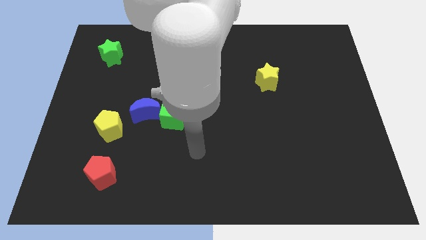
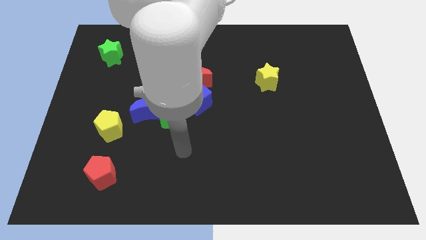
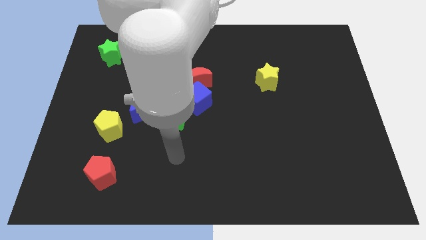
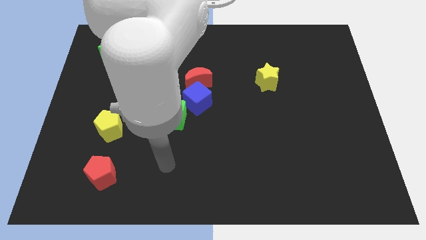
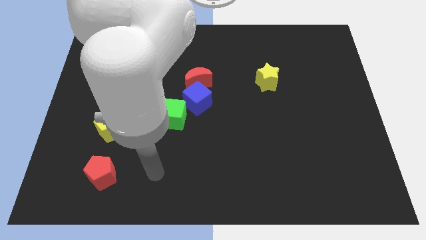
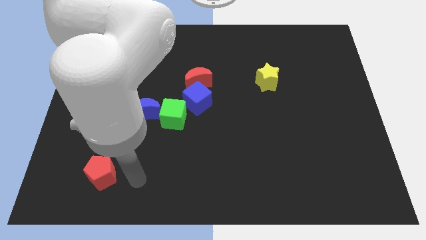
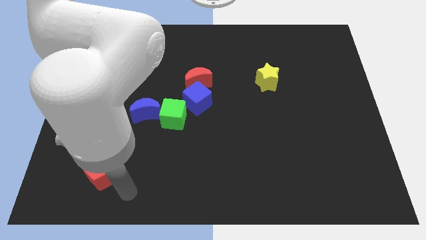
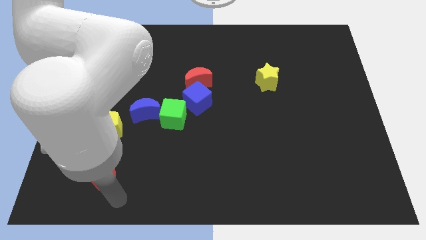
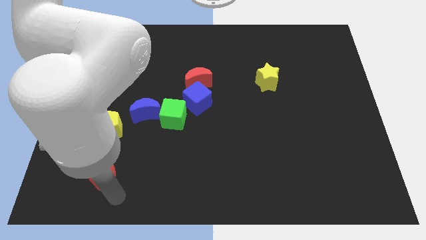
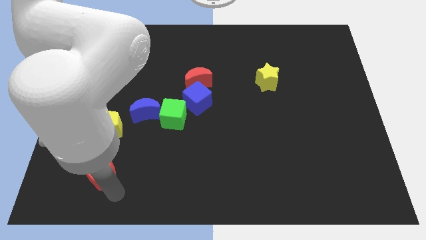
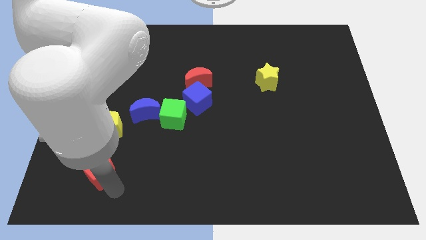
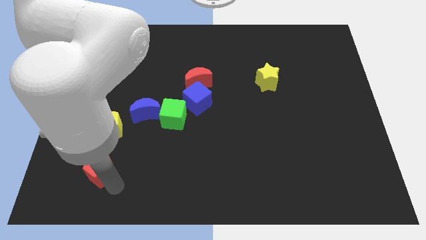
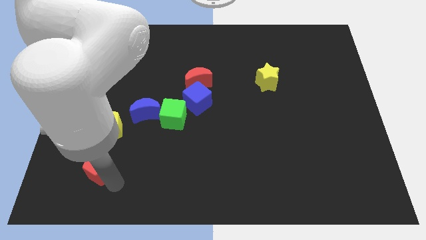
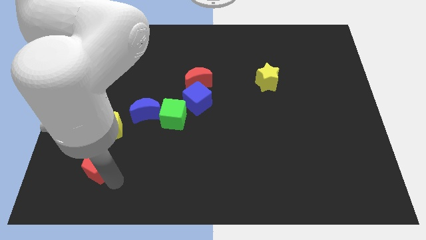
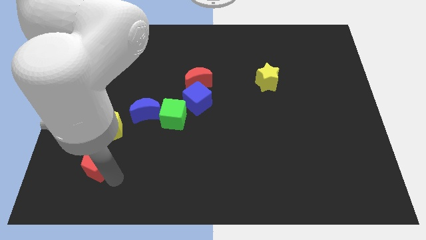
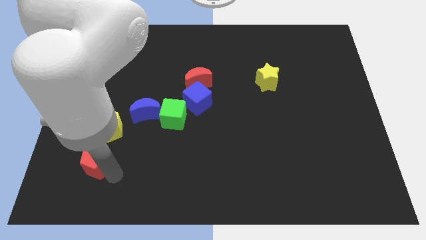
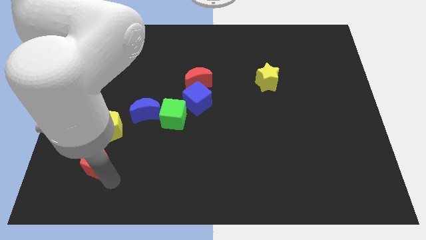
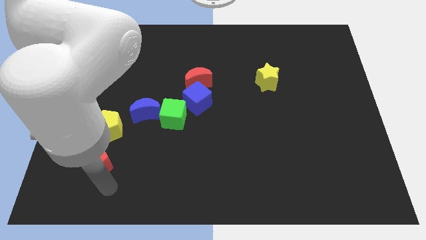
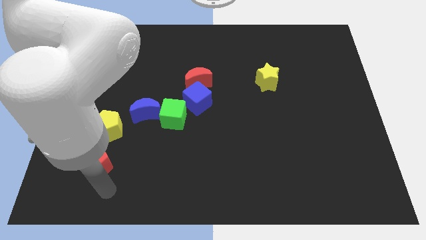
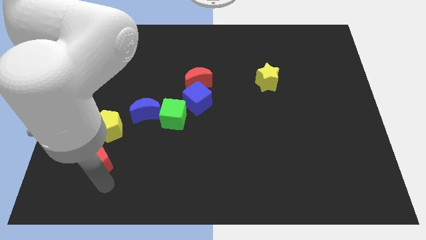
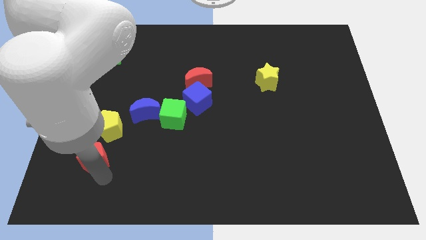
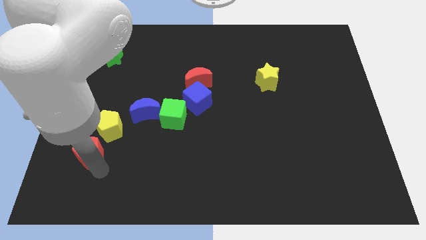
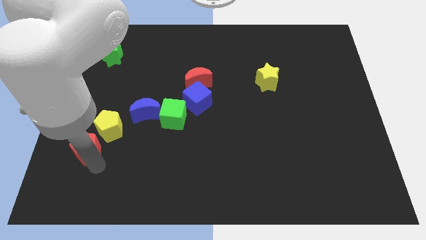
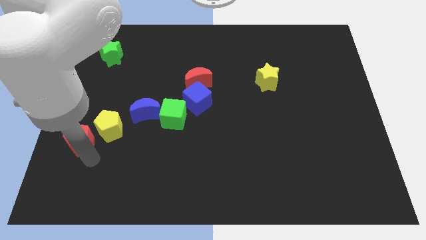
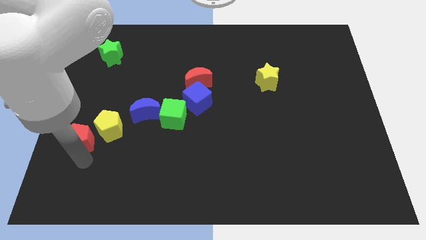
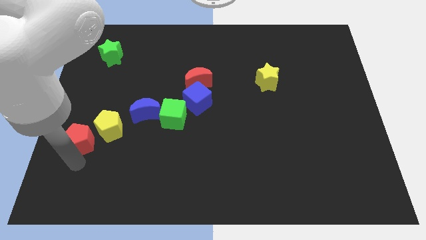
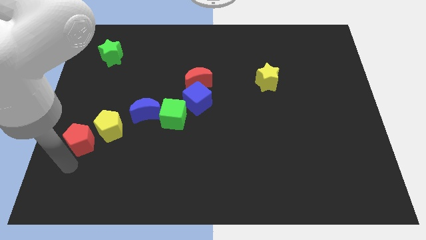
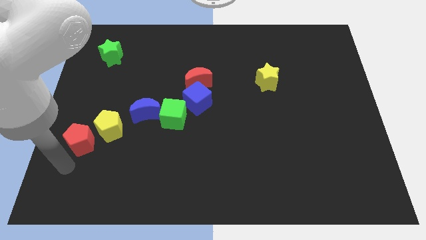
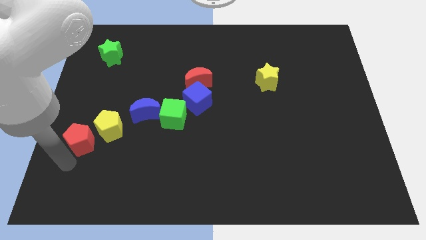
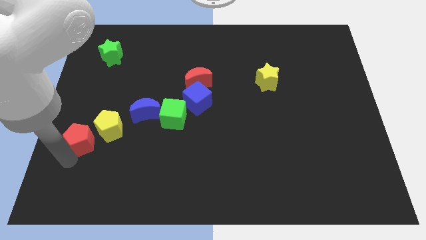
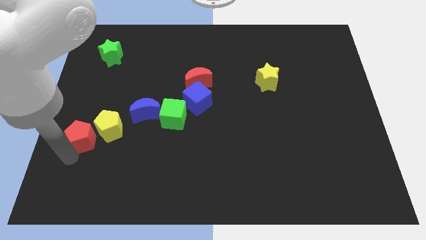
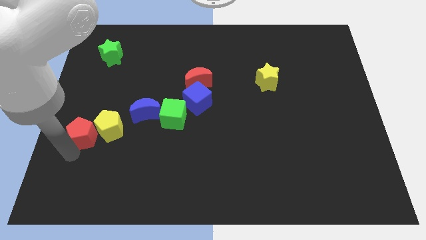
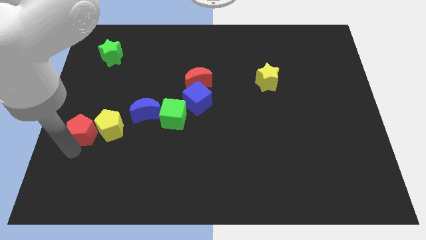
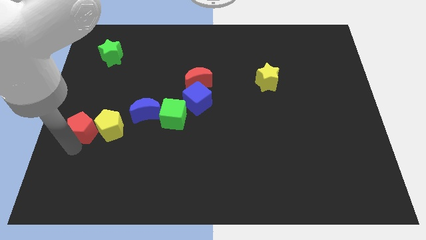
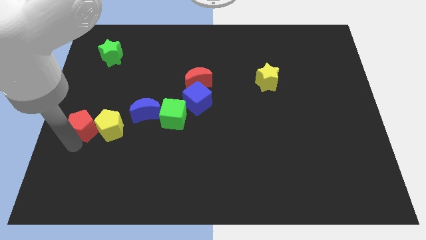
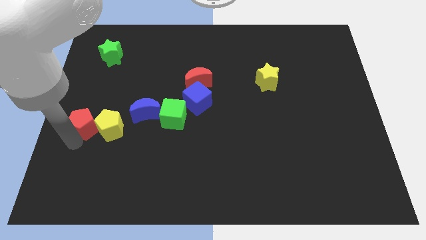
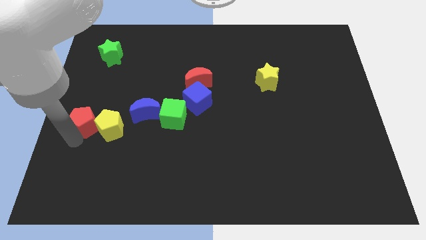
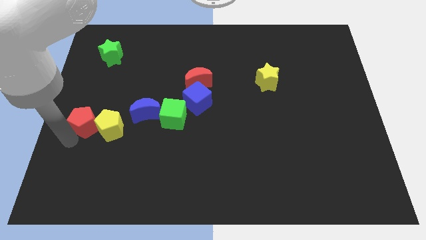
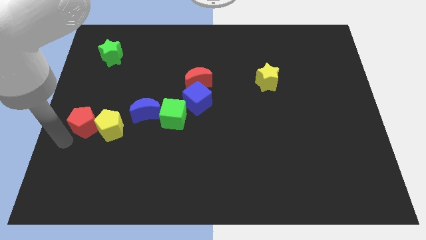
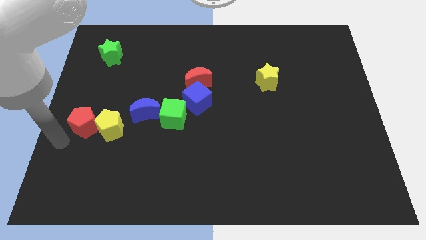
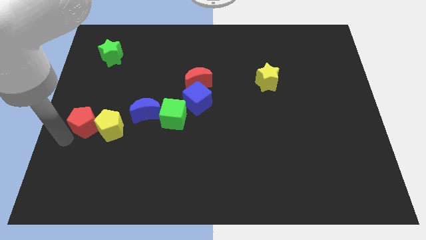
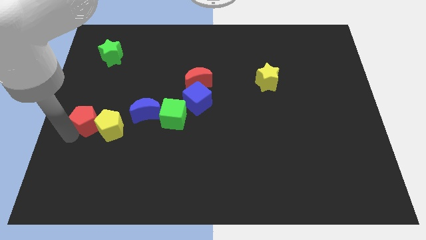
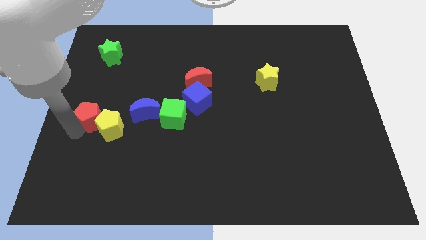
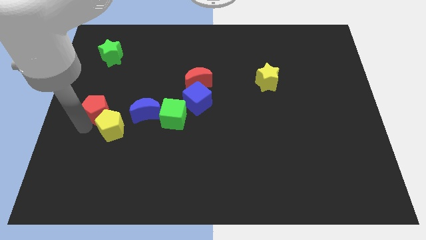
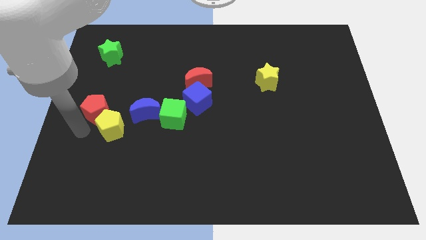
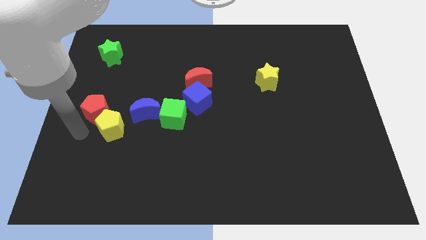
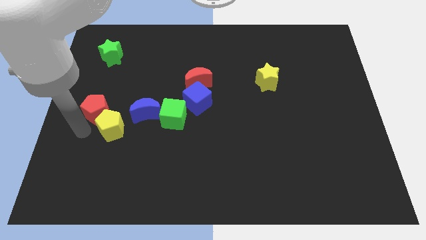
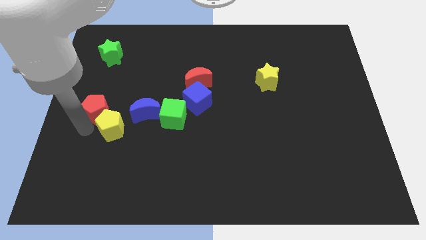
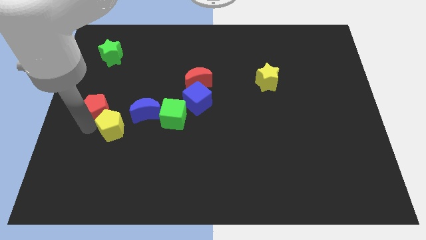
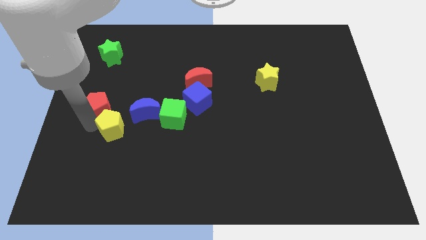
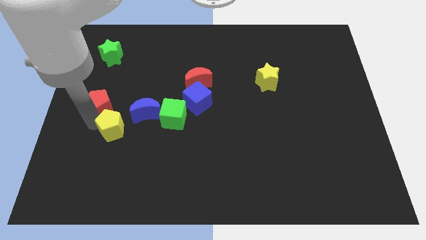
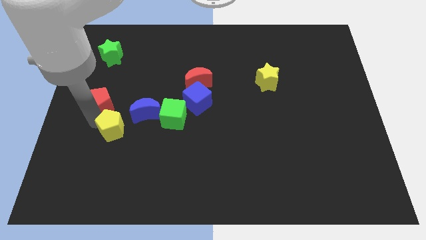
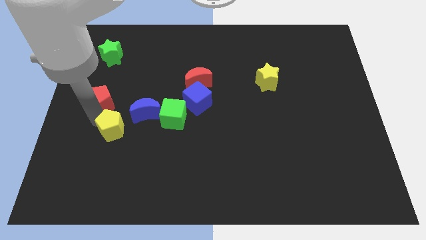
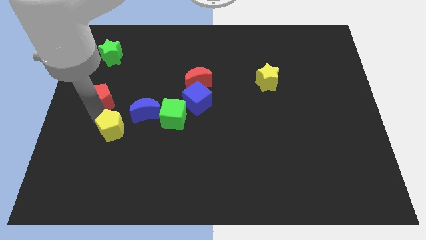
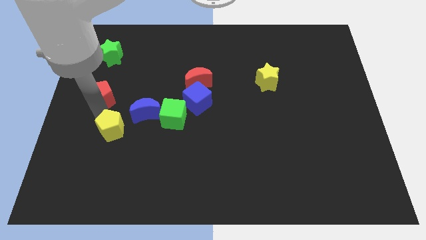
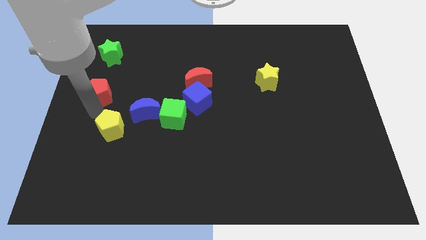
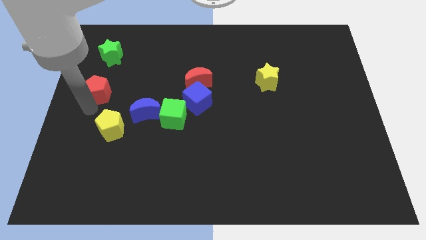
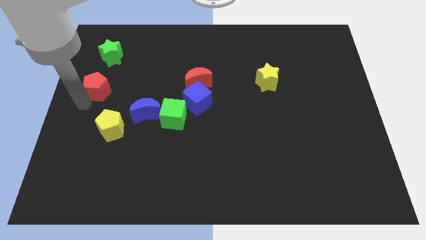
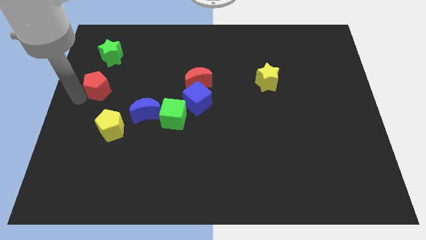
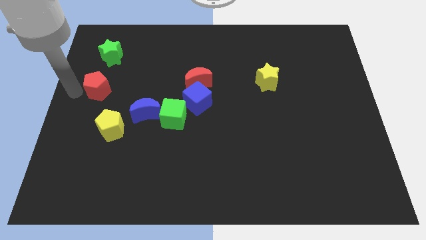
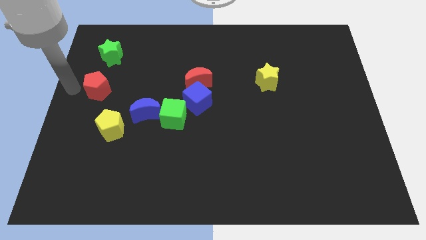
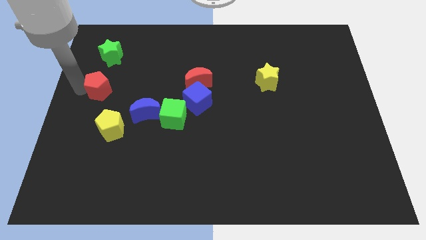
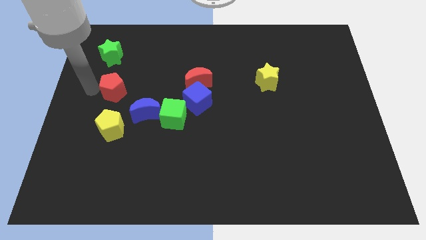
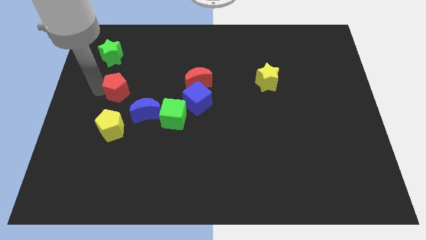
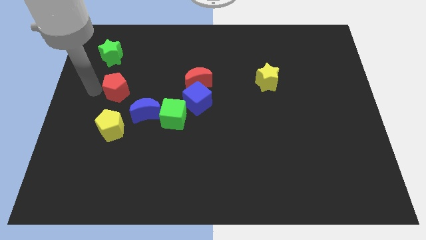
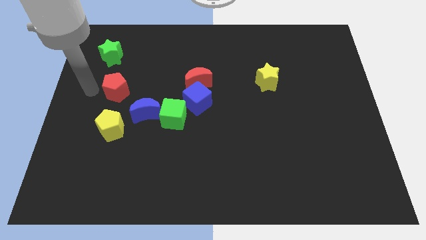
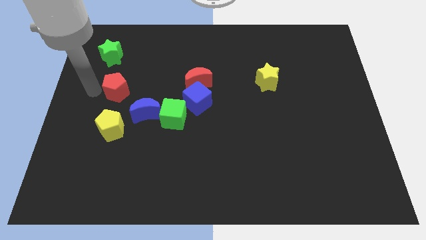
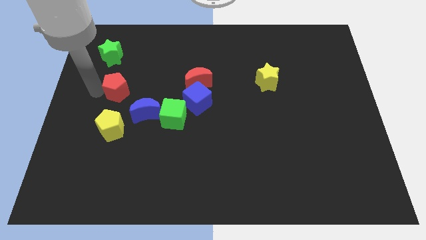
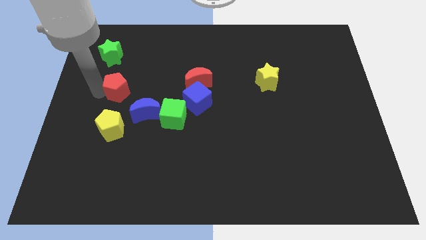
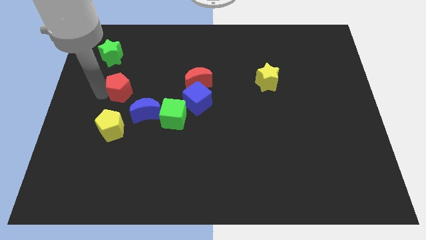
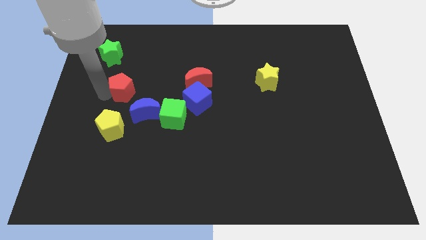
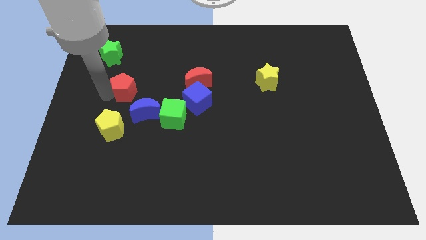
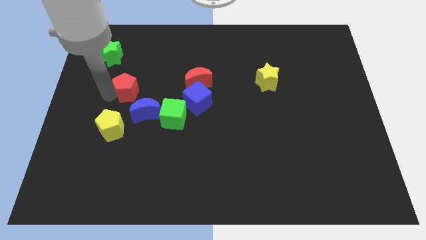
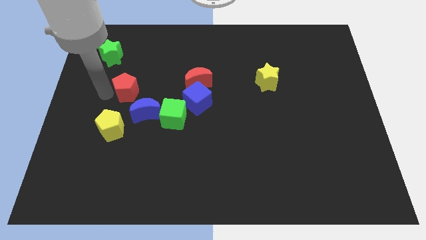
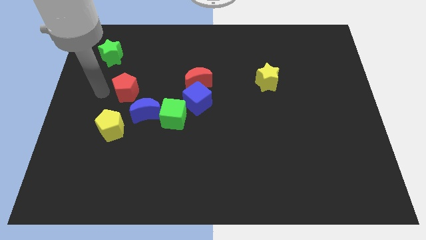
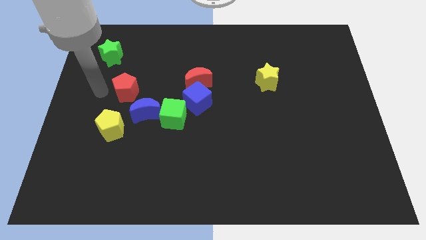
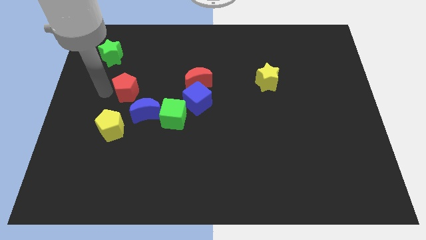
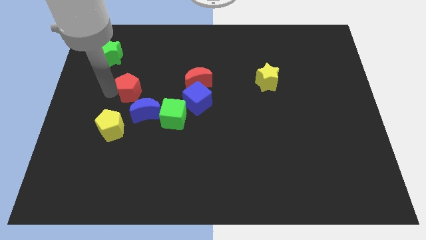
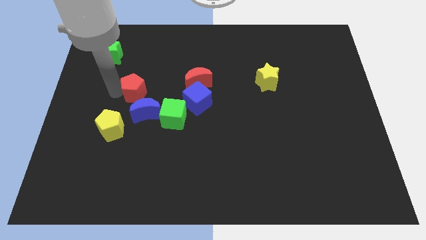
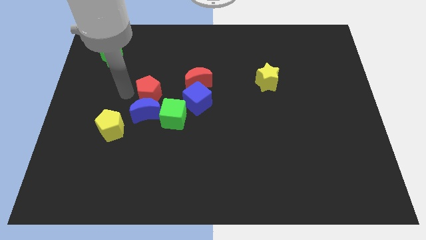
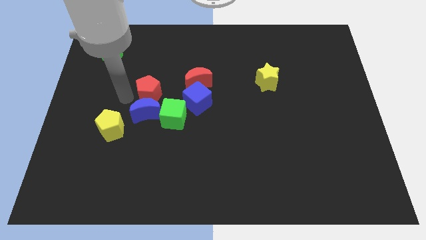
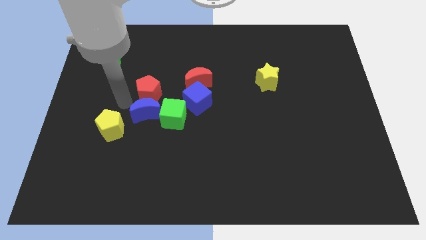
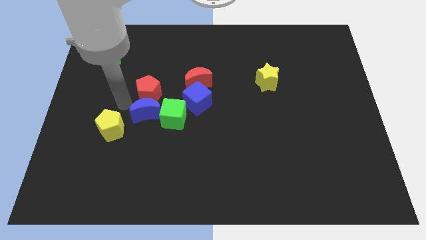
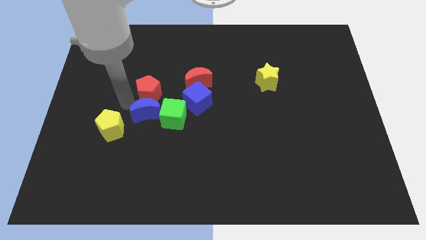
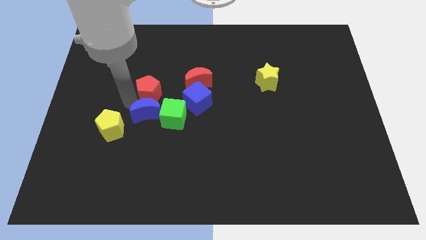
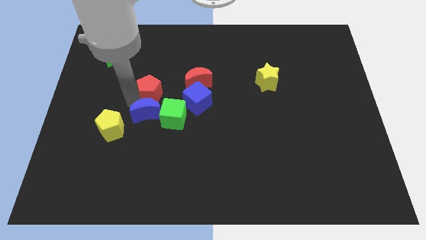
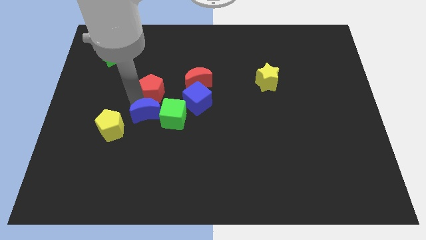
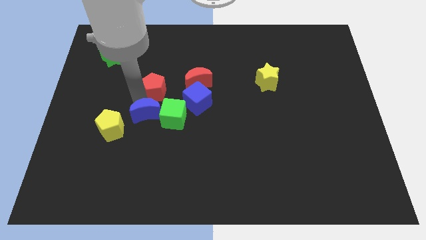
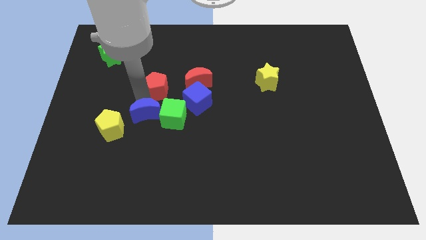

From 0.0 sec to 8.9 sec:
slide the red pentagon to the top side of the green cube
